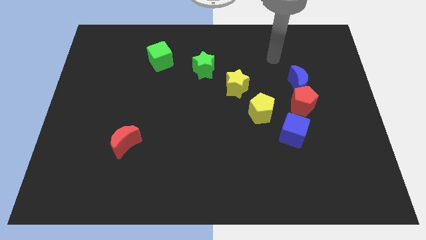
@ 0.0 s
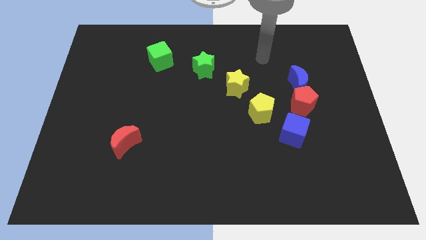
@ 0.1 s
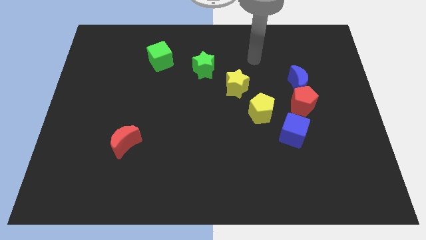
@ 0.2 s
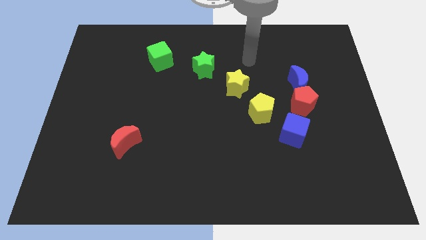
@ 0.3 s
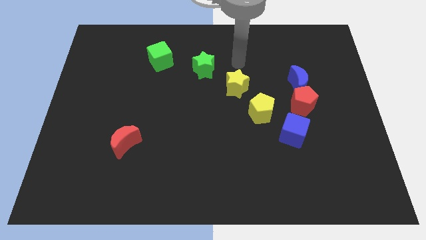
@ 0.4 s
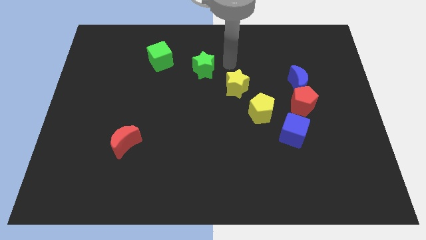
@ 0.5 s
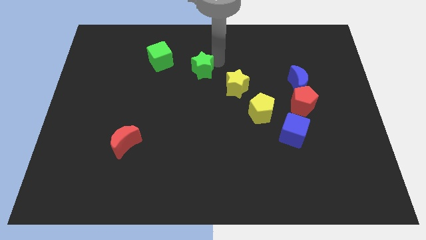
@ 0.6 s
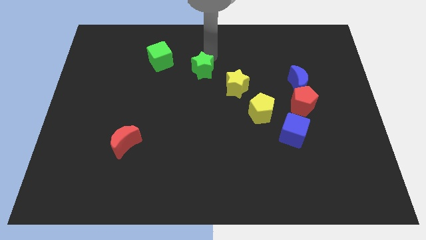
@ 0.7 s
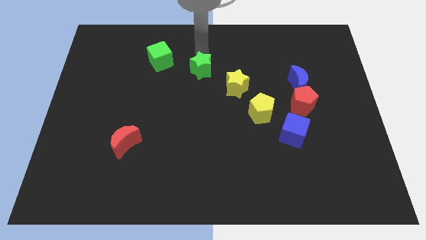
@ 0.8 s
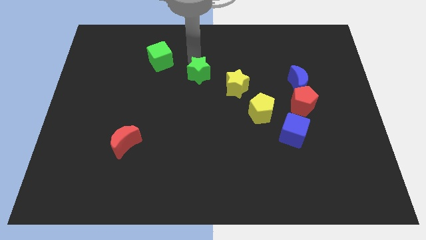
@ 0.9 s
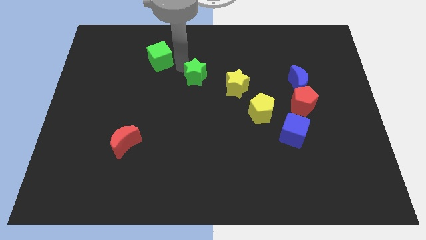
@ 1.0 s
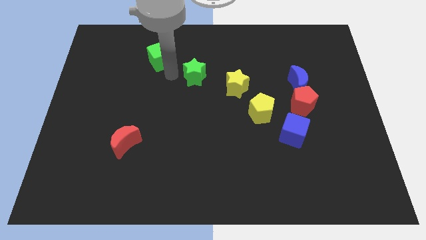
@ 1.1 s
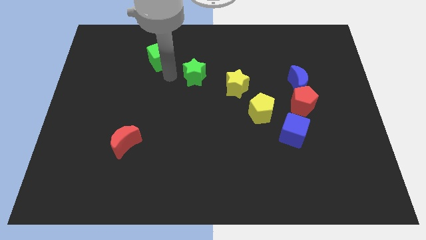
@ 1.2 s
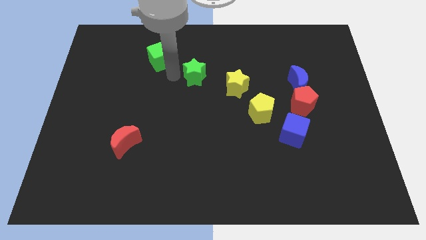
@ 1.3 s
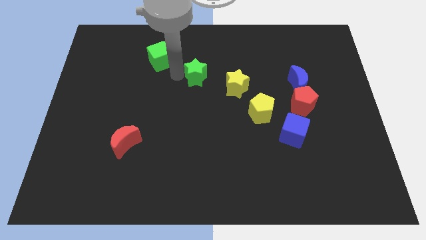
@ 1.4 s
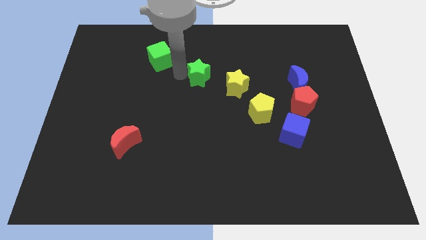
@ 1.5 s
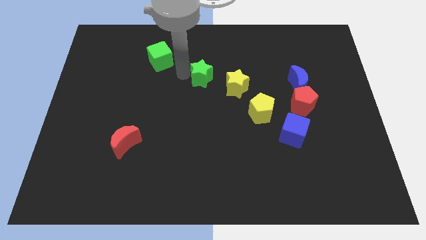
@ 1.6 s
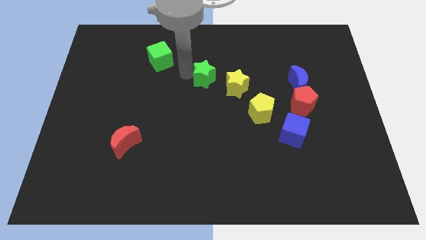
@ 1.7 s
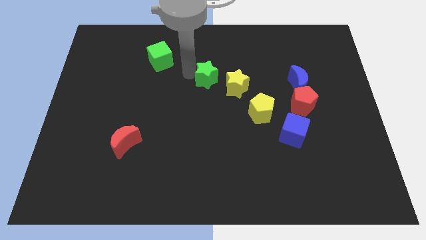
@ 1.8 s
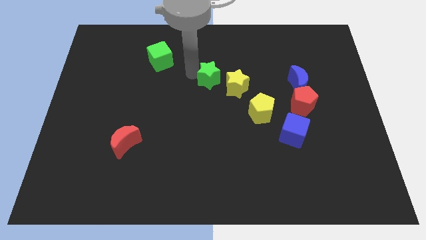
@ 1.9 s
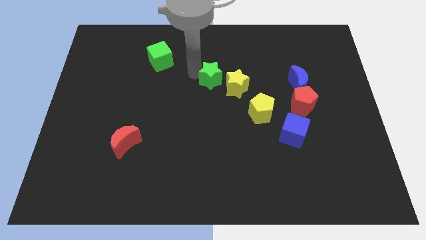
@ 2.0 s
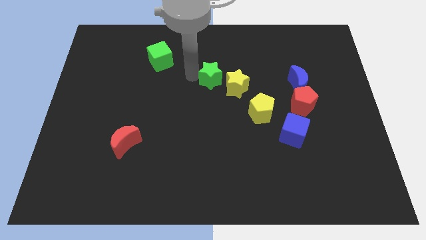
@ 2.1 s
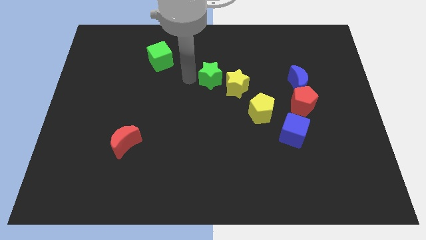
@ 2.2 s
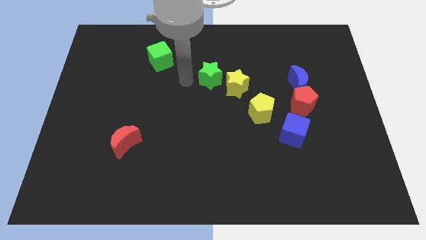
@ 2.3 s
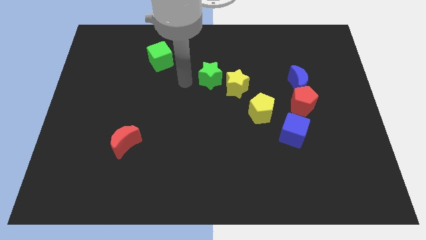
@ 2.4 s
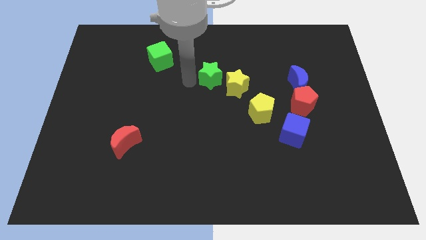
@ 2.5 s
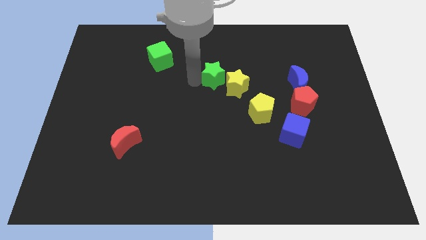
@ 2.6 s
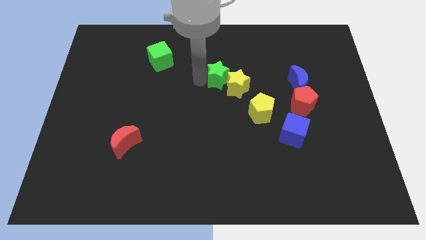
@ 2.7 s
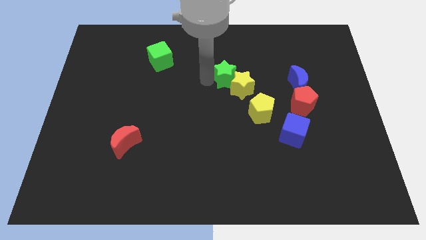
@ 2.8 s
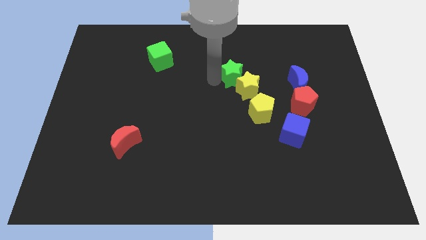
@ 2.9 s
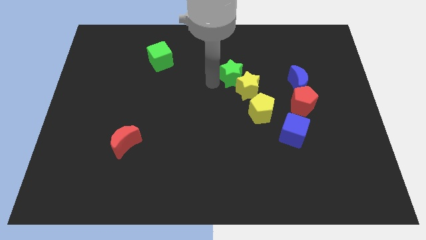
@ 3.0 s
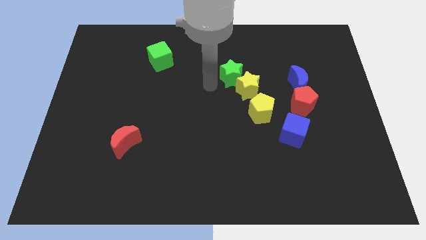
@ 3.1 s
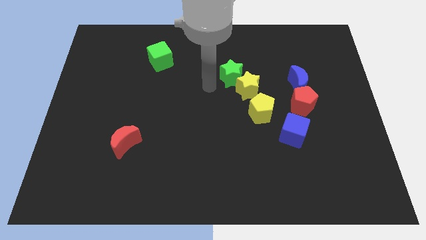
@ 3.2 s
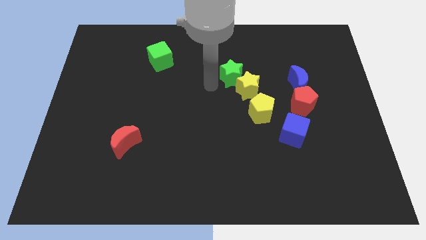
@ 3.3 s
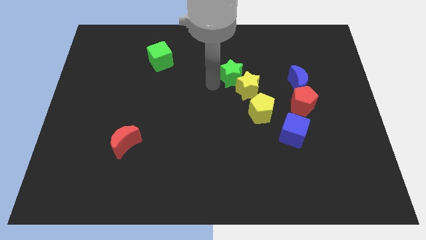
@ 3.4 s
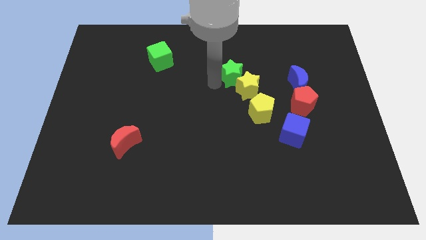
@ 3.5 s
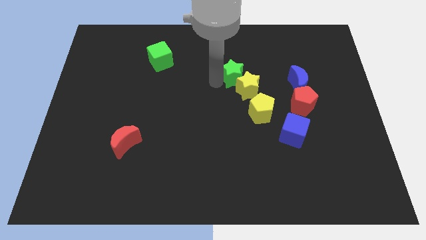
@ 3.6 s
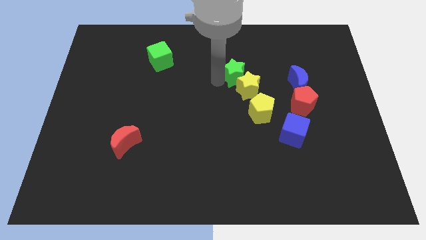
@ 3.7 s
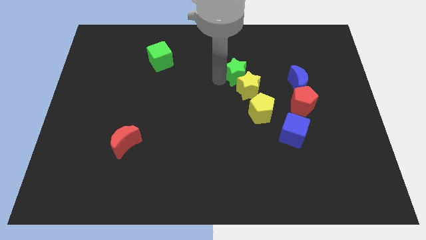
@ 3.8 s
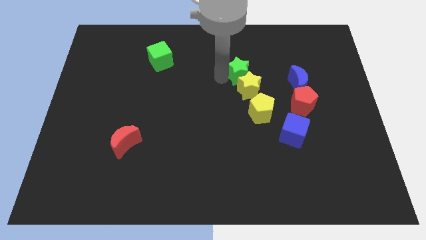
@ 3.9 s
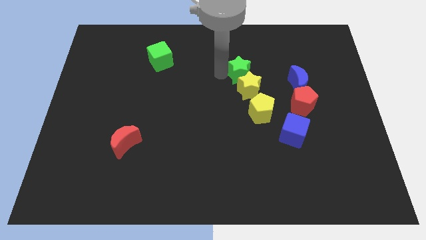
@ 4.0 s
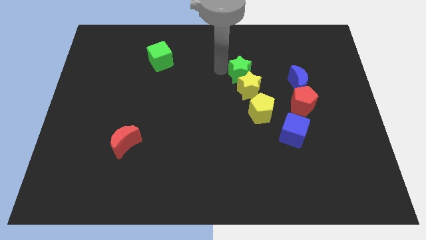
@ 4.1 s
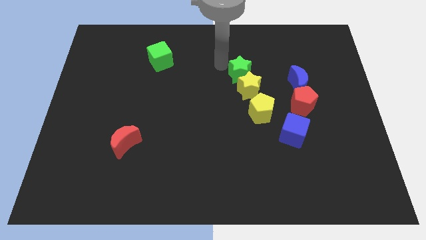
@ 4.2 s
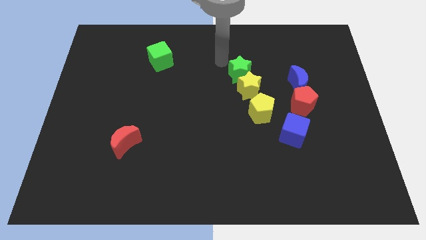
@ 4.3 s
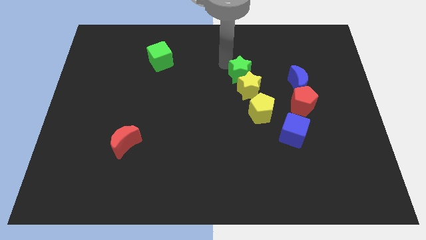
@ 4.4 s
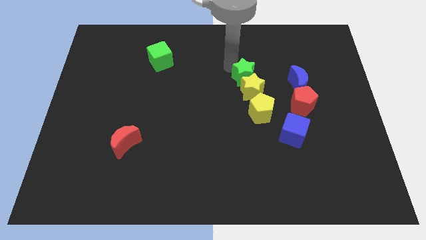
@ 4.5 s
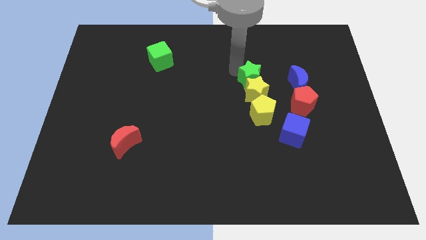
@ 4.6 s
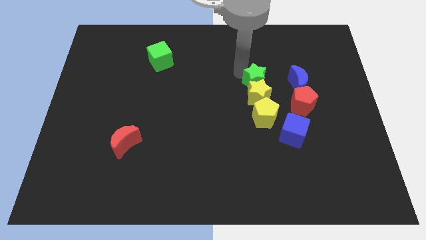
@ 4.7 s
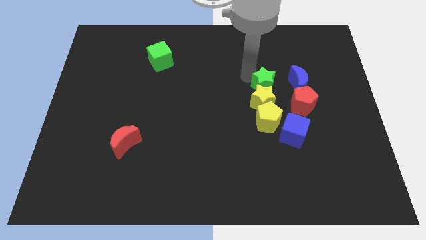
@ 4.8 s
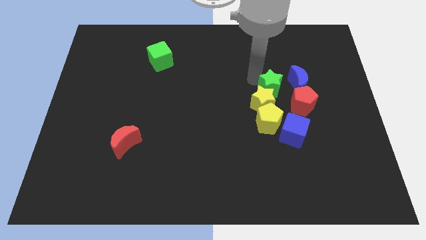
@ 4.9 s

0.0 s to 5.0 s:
move the green star diagonally down and to the left of the blue moon

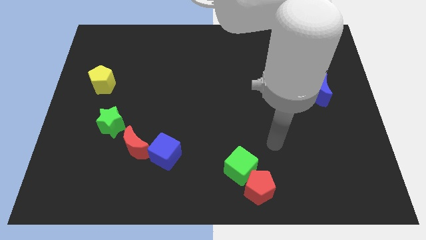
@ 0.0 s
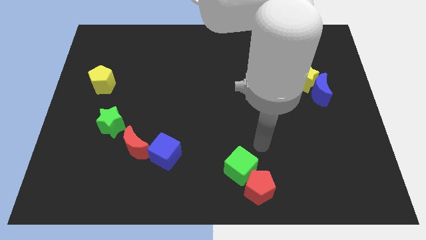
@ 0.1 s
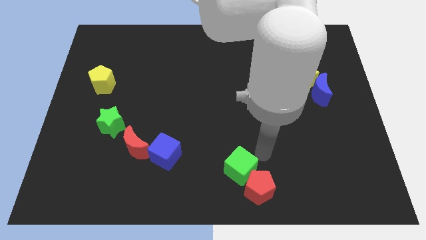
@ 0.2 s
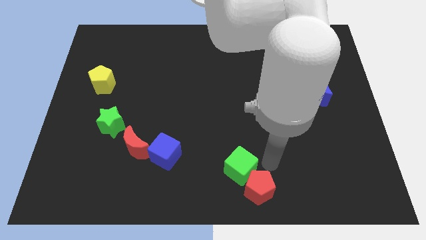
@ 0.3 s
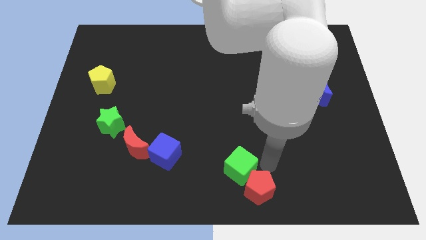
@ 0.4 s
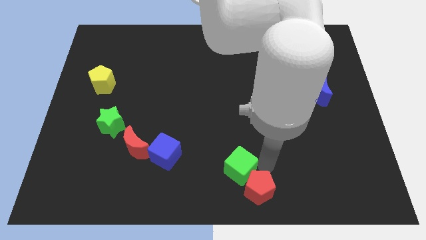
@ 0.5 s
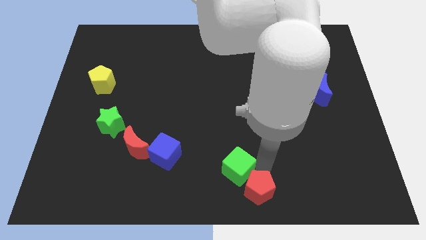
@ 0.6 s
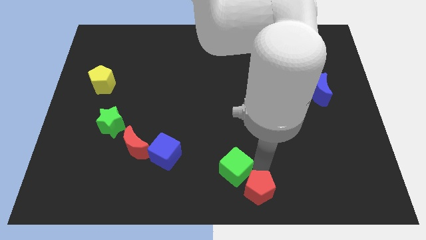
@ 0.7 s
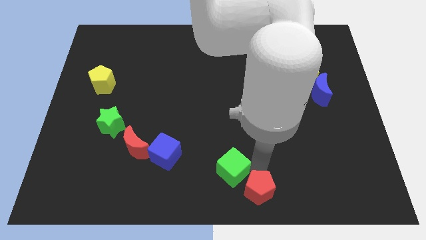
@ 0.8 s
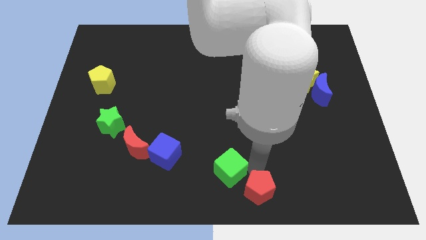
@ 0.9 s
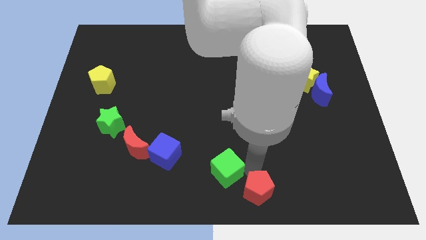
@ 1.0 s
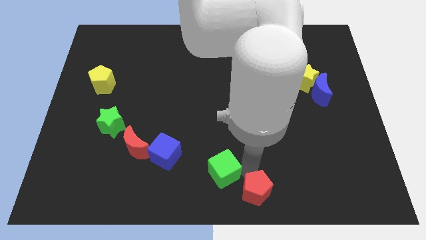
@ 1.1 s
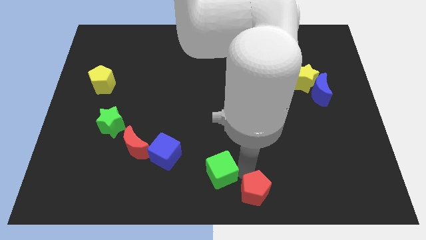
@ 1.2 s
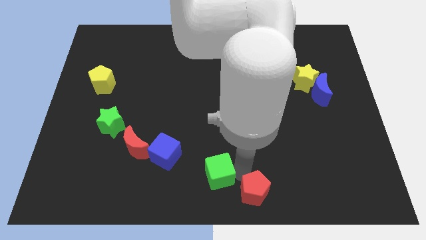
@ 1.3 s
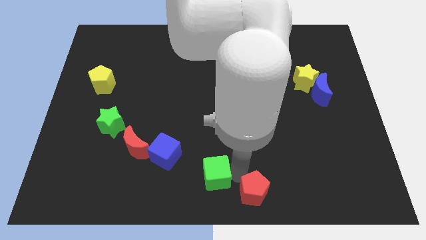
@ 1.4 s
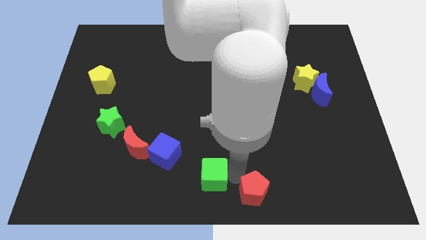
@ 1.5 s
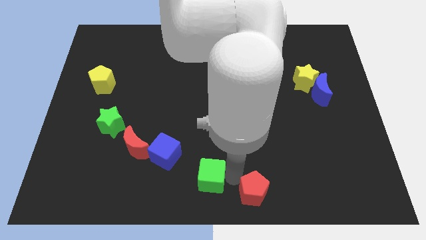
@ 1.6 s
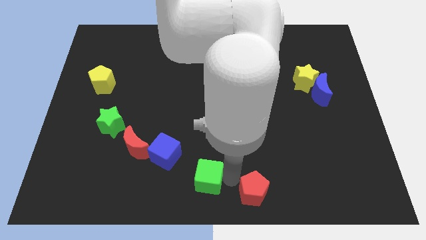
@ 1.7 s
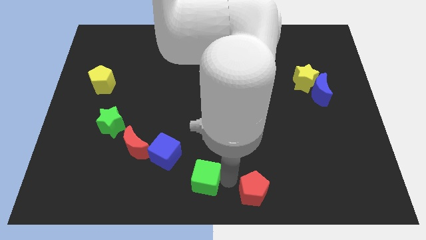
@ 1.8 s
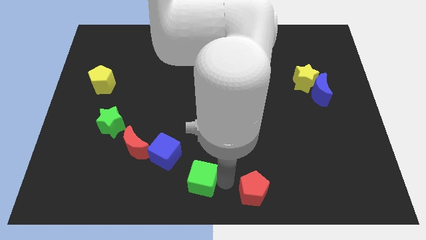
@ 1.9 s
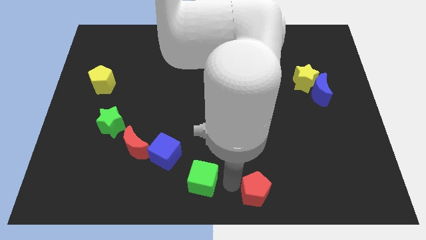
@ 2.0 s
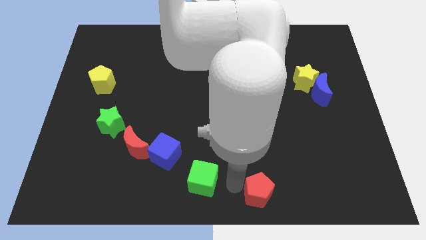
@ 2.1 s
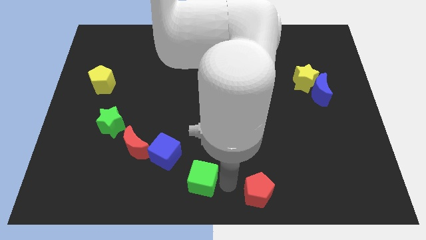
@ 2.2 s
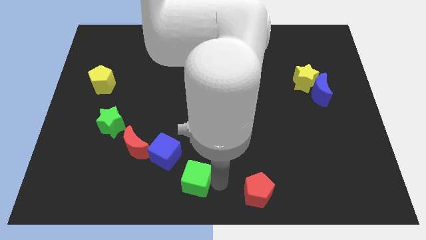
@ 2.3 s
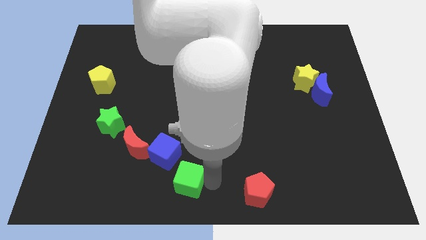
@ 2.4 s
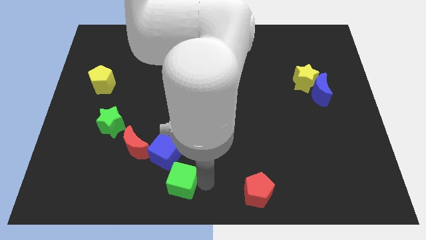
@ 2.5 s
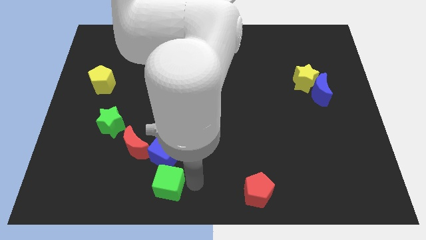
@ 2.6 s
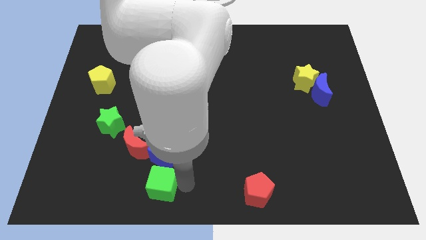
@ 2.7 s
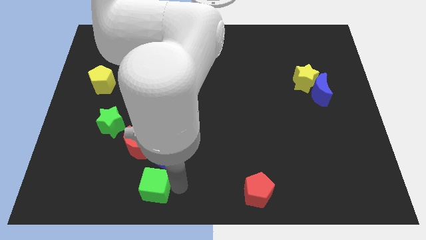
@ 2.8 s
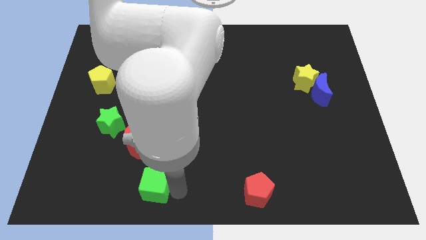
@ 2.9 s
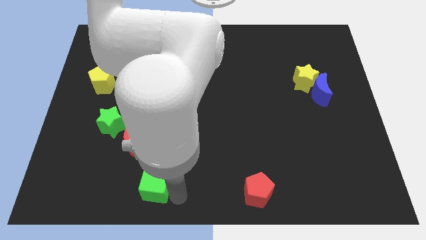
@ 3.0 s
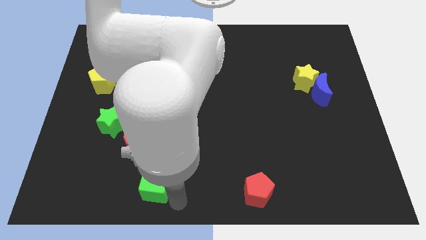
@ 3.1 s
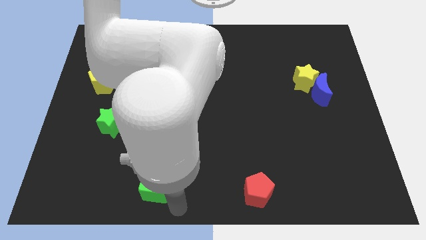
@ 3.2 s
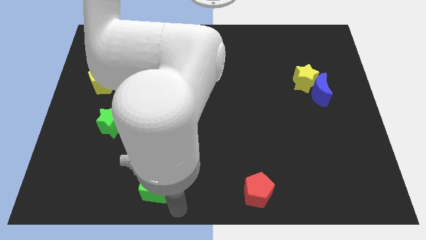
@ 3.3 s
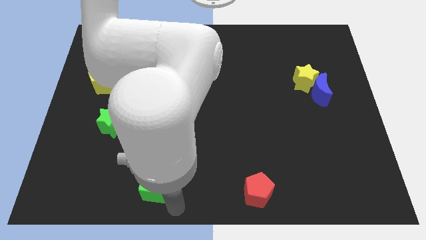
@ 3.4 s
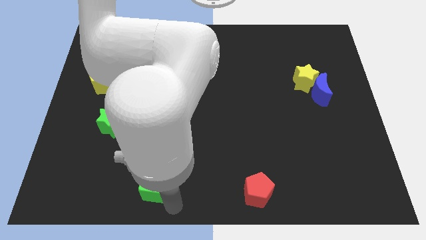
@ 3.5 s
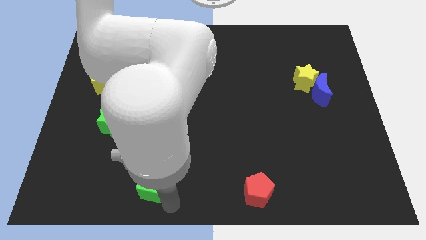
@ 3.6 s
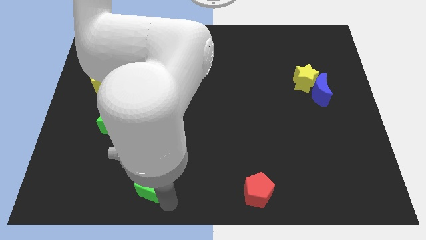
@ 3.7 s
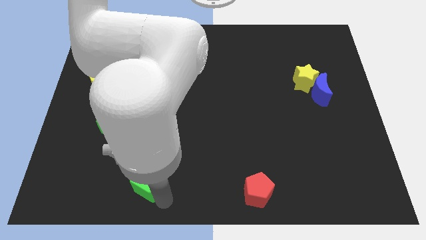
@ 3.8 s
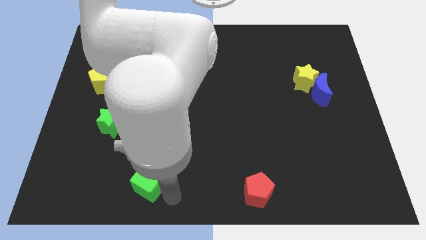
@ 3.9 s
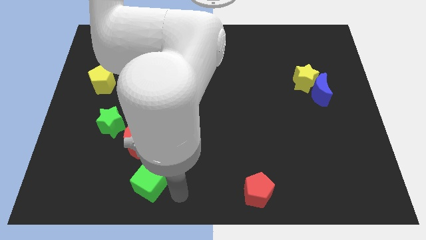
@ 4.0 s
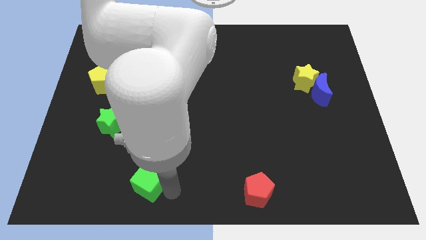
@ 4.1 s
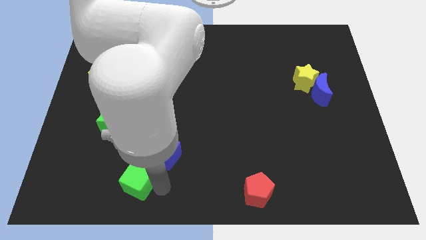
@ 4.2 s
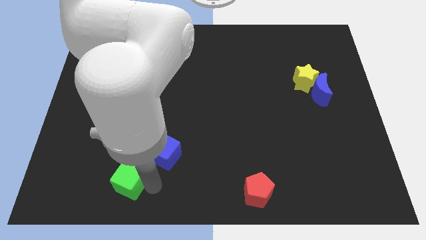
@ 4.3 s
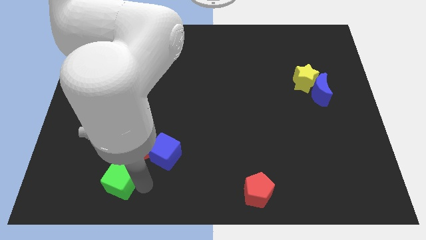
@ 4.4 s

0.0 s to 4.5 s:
put the green cube to the bottom left of the red moon
